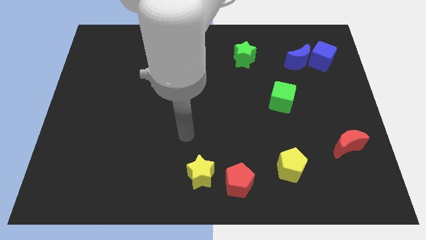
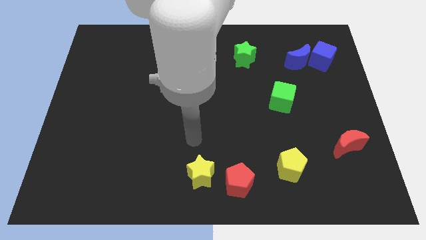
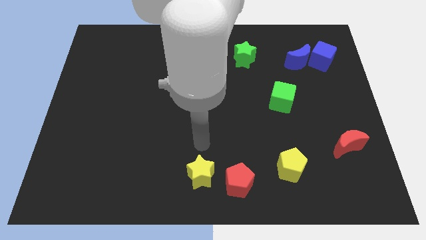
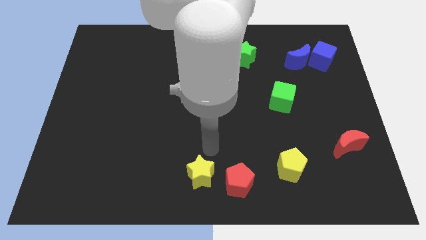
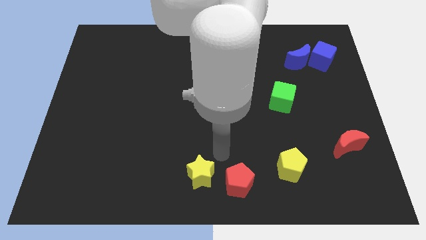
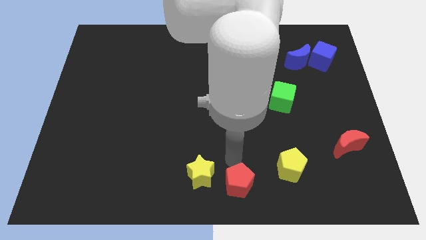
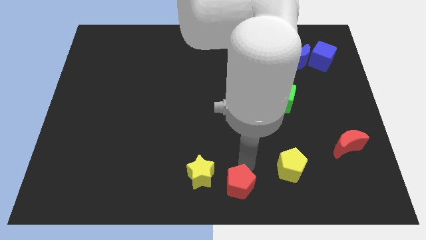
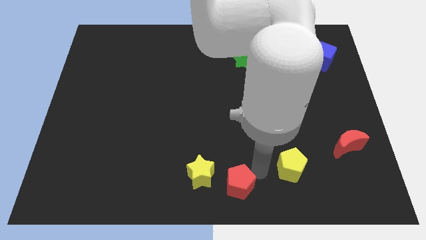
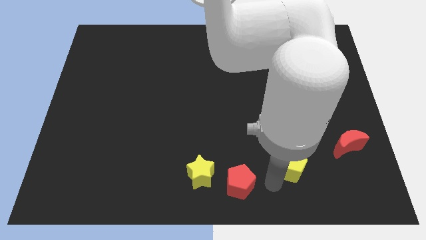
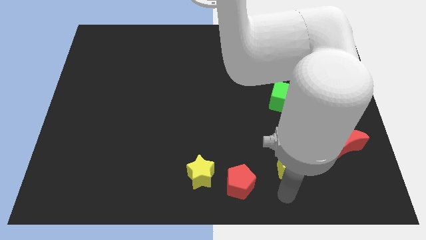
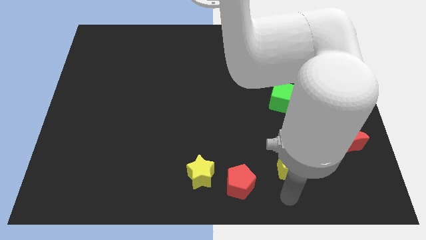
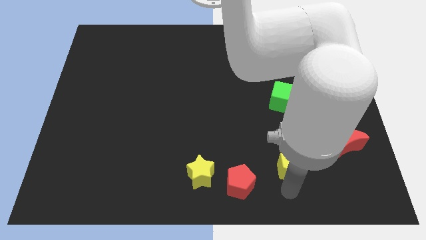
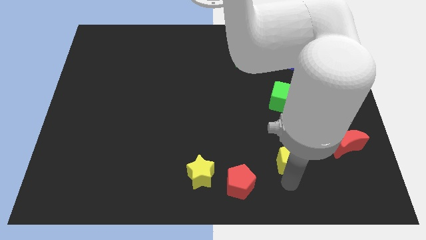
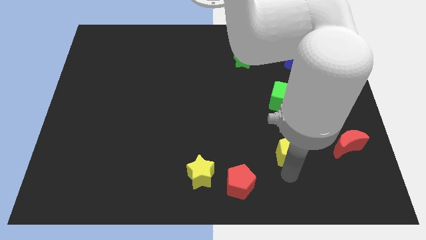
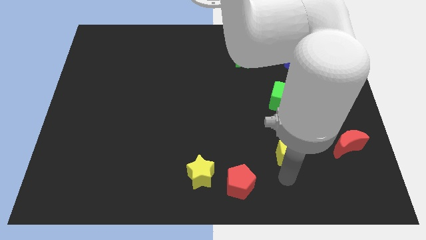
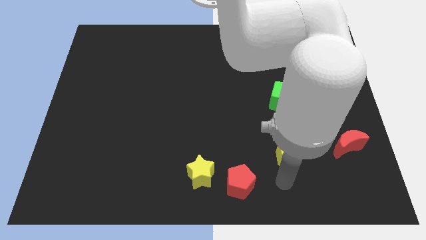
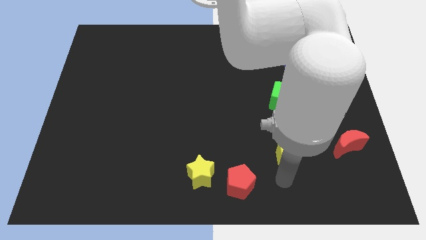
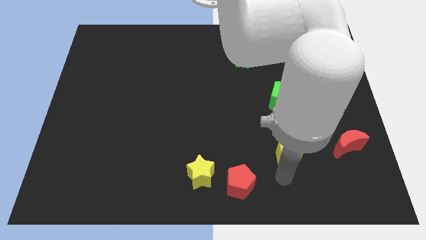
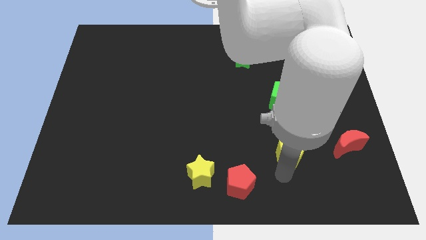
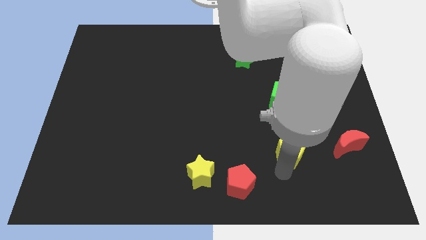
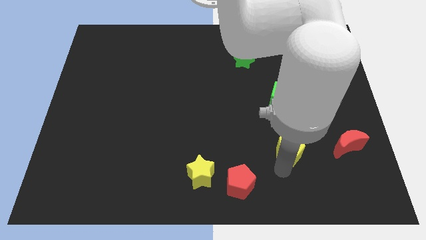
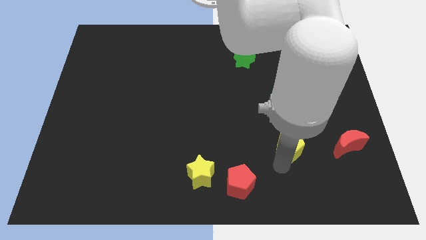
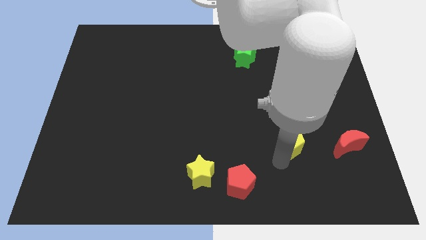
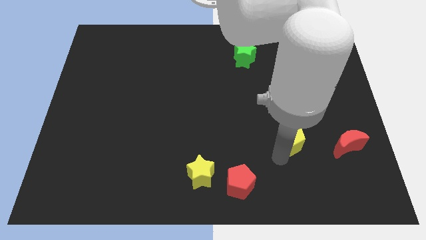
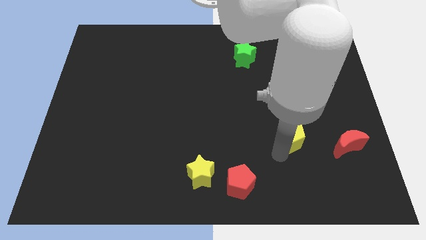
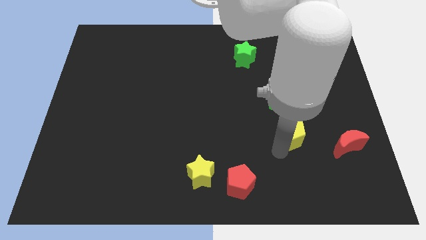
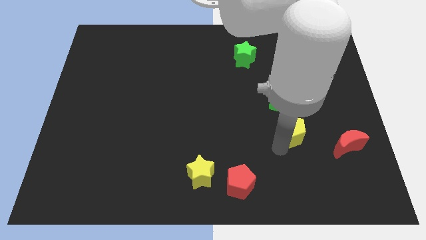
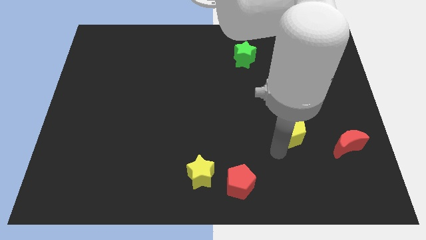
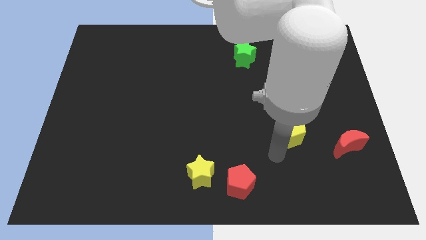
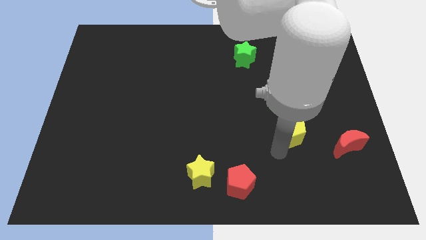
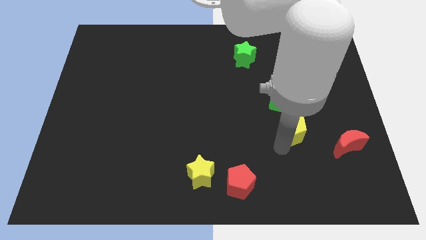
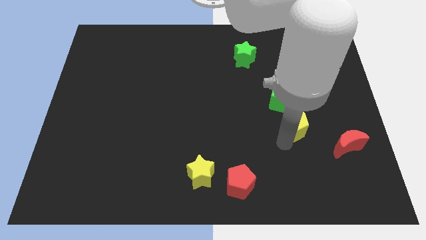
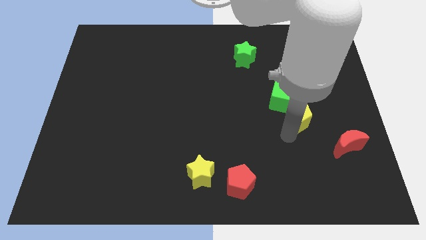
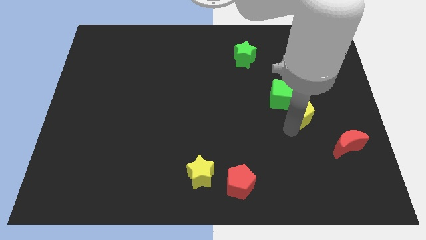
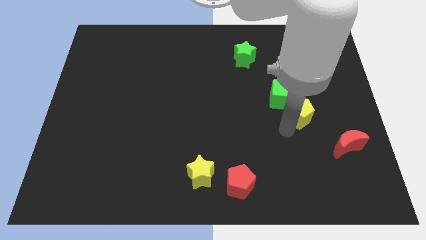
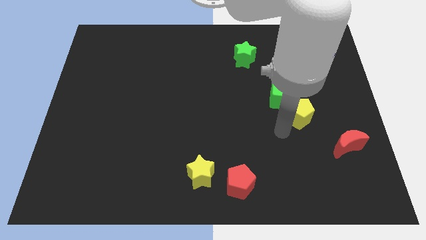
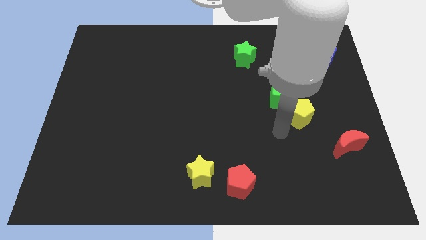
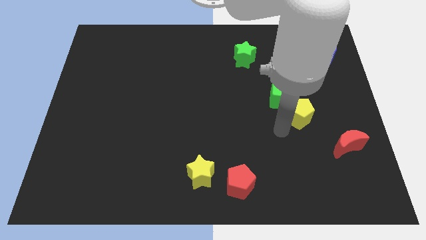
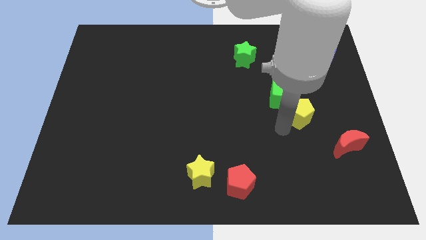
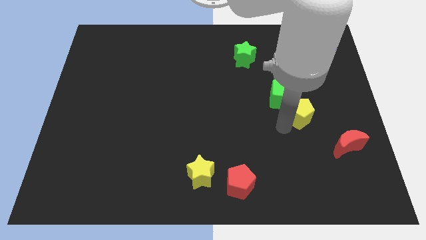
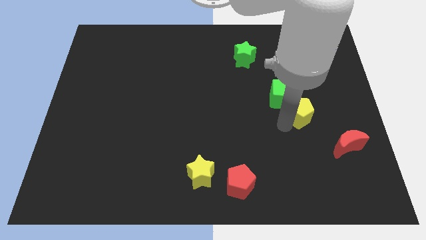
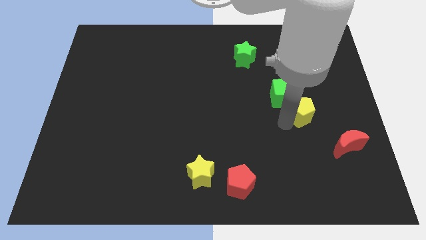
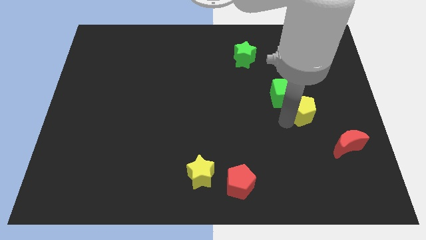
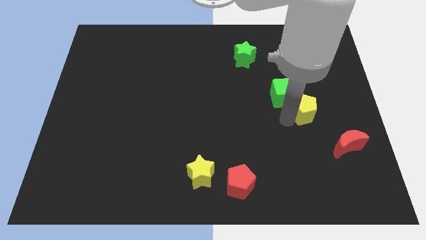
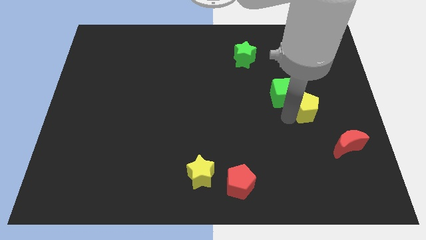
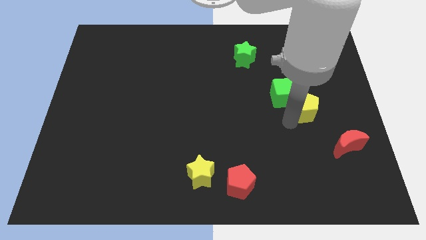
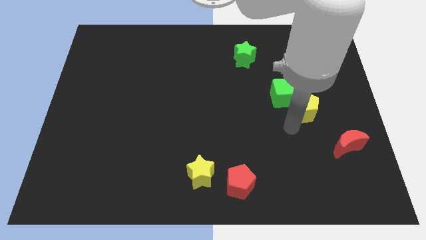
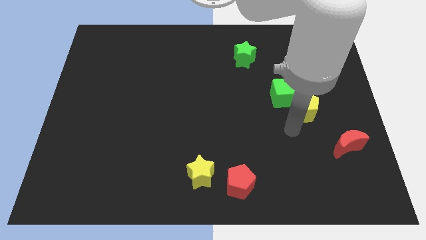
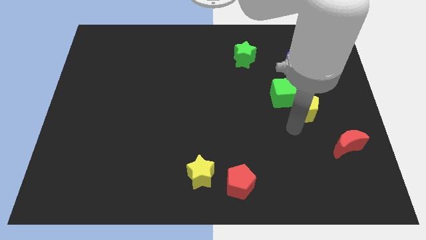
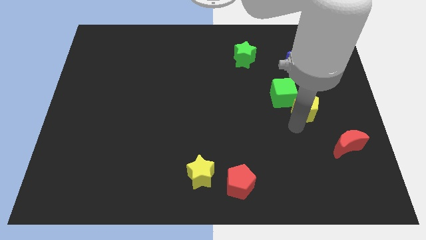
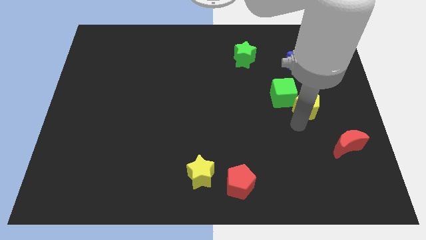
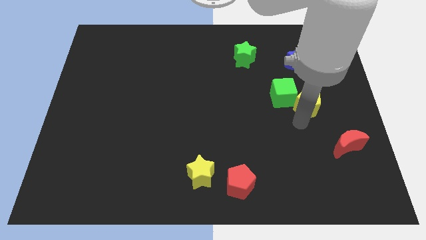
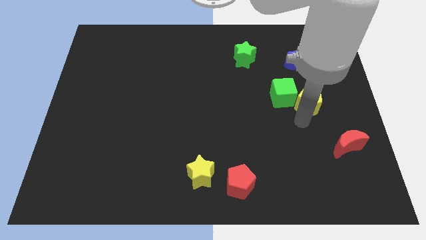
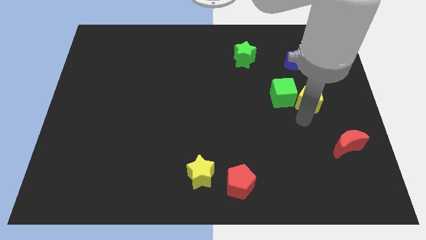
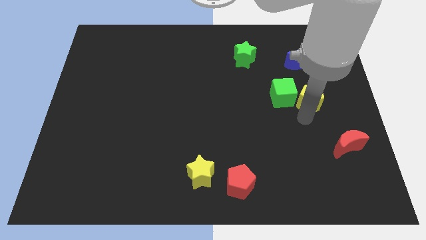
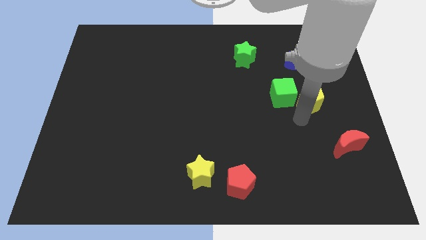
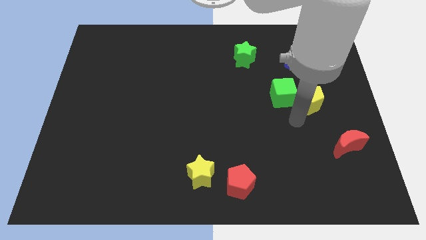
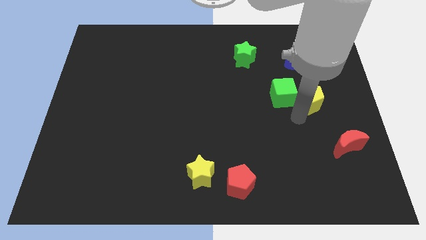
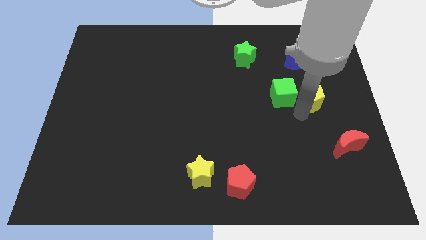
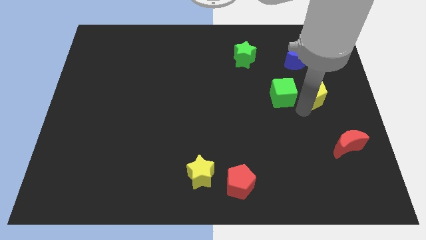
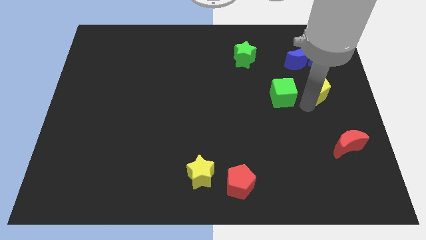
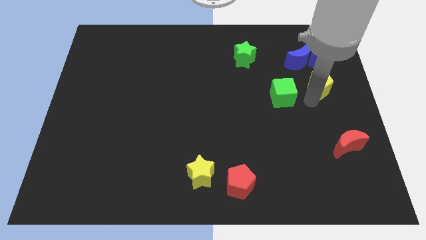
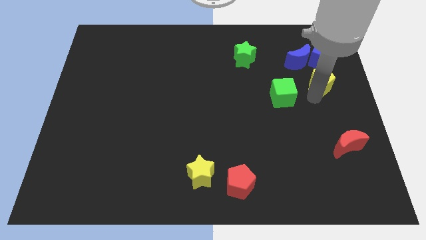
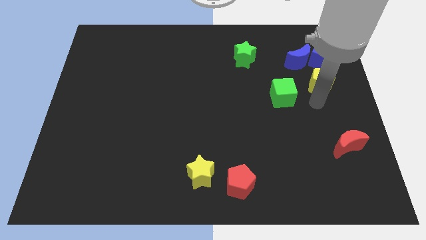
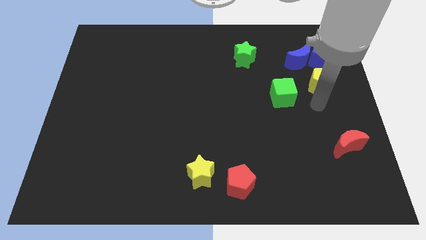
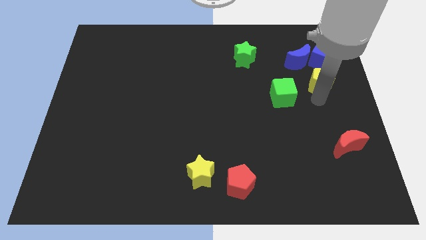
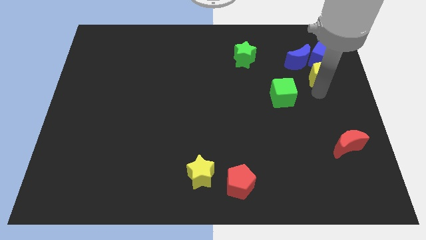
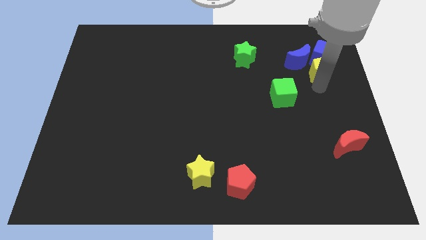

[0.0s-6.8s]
move the yellow pentagon next to the blue cube

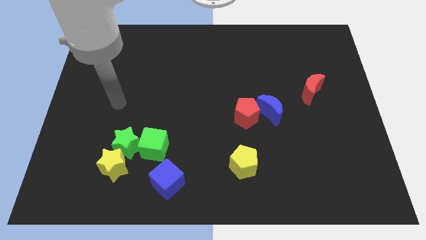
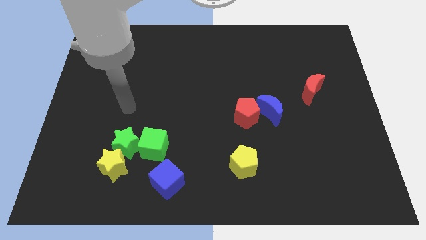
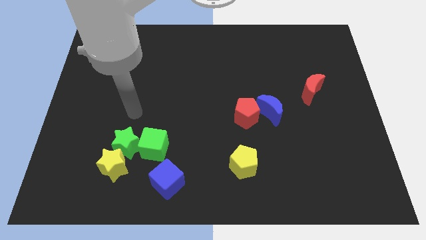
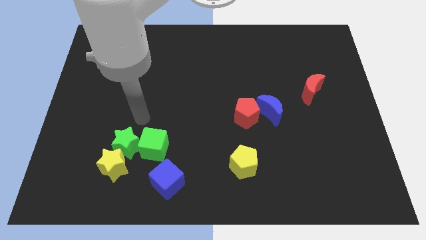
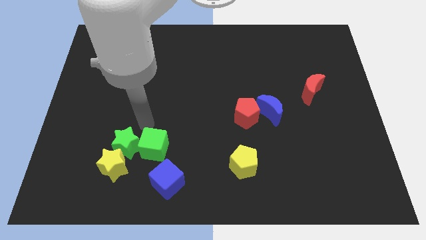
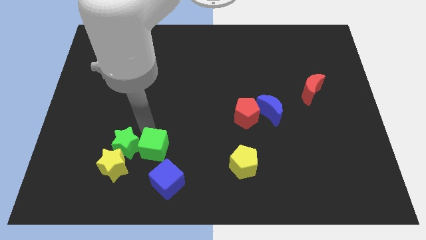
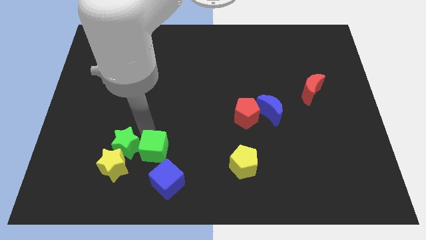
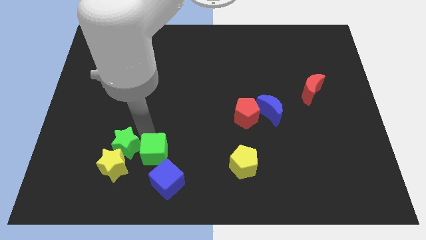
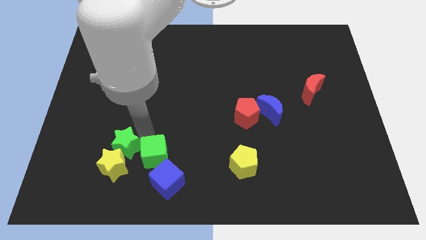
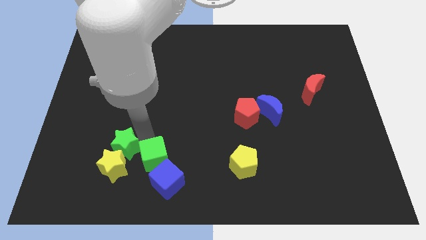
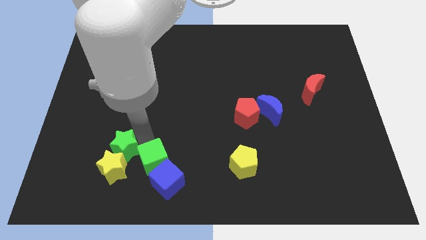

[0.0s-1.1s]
move the green cube to the blue cube
